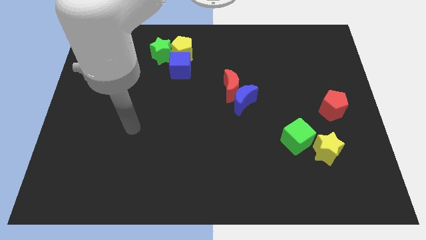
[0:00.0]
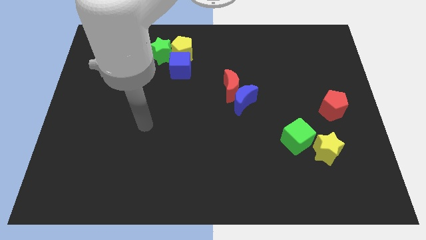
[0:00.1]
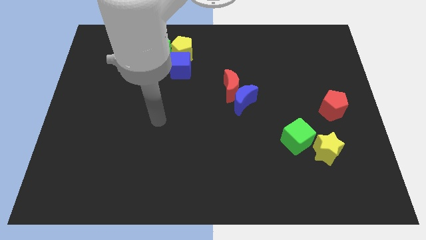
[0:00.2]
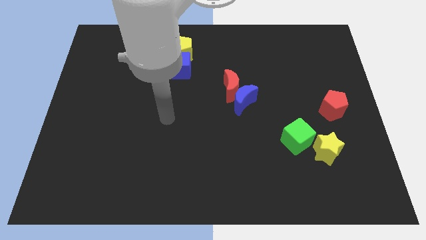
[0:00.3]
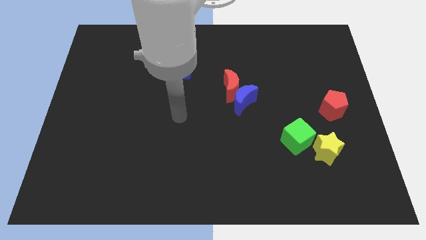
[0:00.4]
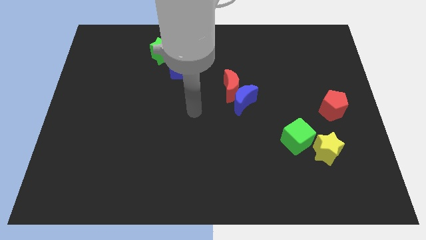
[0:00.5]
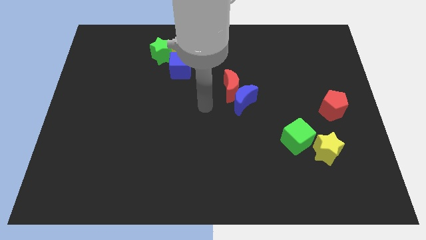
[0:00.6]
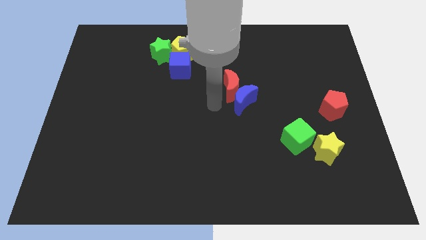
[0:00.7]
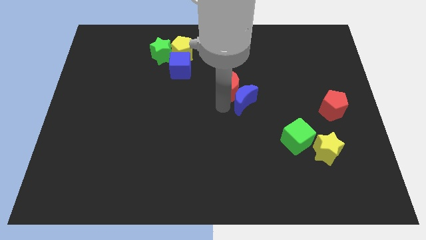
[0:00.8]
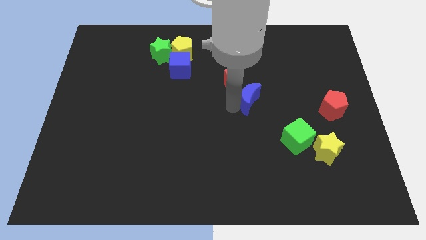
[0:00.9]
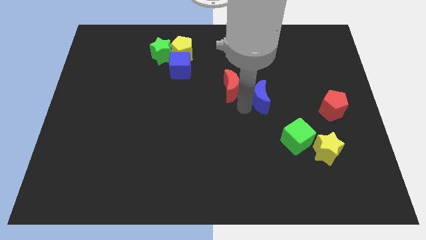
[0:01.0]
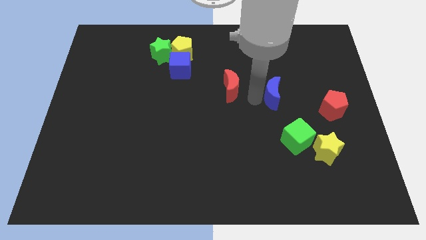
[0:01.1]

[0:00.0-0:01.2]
move the red moon away from the blue moon

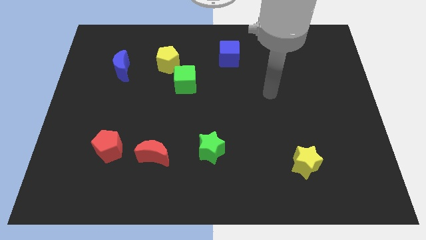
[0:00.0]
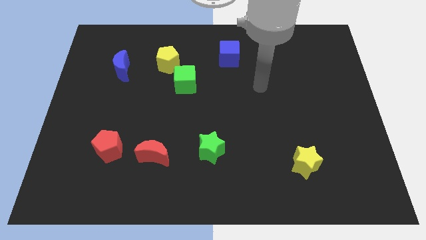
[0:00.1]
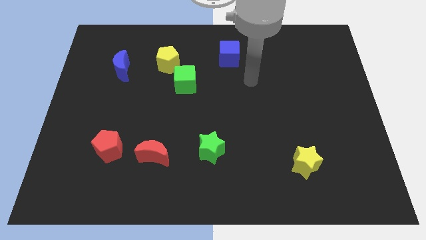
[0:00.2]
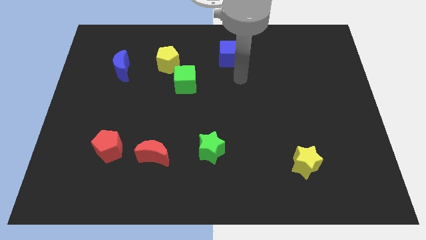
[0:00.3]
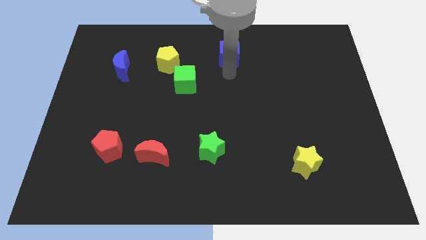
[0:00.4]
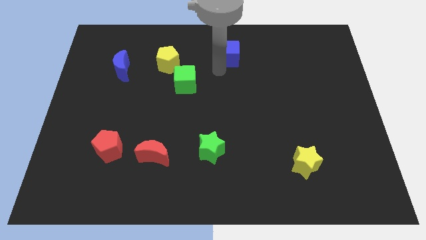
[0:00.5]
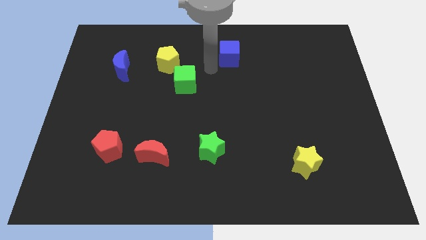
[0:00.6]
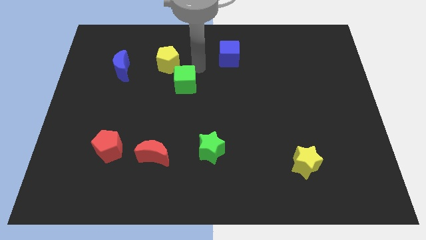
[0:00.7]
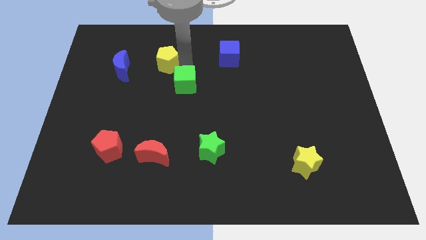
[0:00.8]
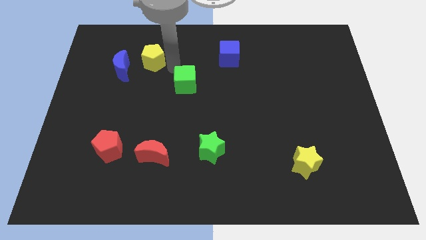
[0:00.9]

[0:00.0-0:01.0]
move the green cube away from the yellow pentagon

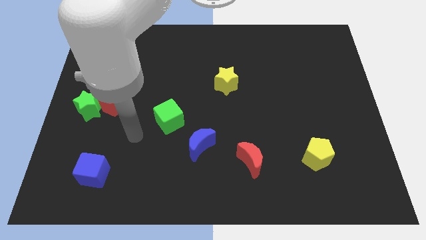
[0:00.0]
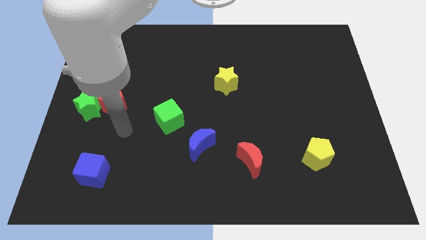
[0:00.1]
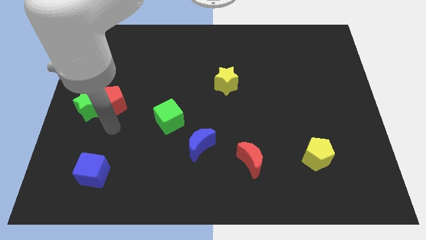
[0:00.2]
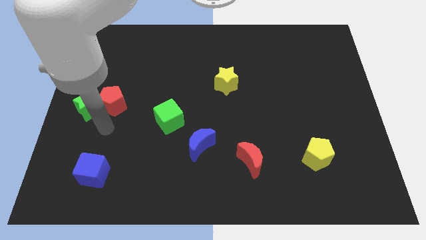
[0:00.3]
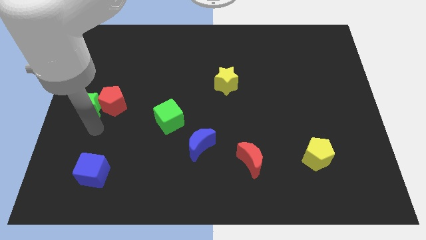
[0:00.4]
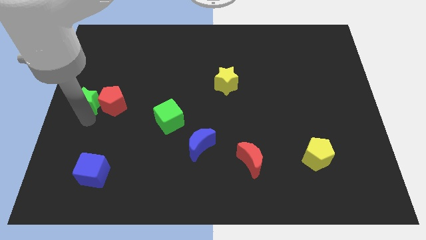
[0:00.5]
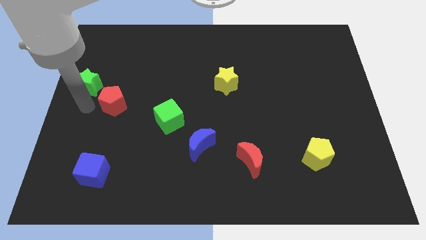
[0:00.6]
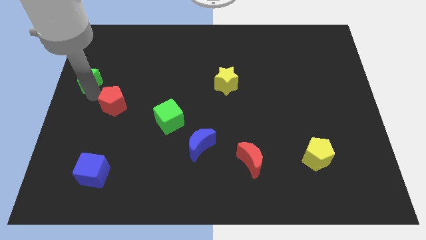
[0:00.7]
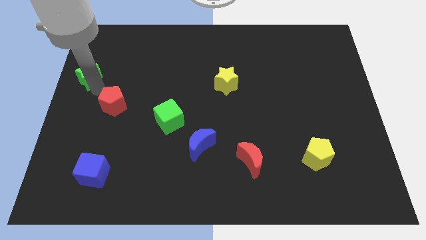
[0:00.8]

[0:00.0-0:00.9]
move the red pentagon away from the green star

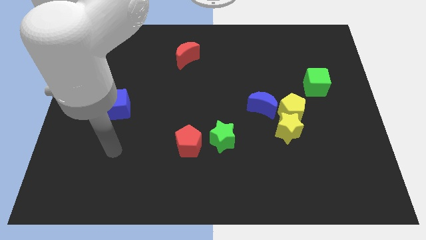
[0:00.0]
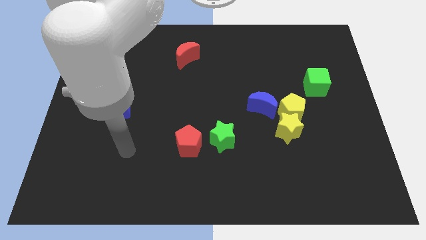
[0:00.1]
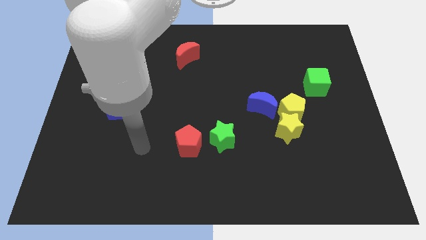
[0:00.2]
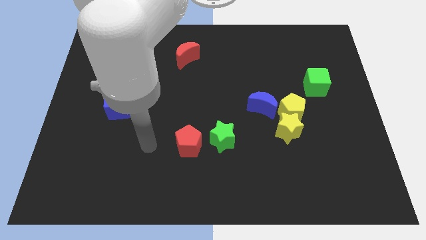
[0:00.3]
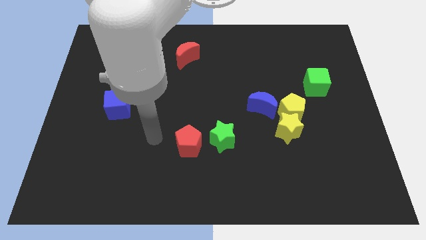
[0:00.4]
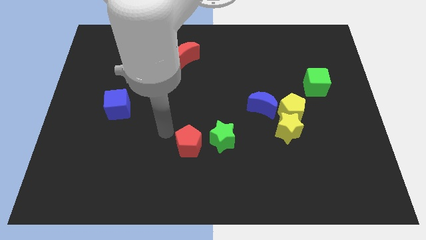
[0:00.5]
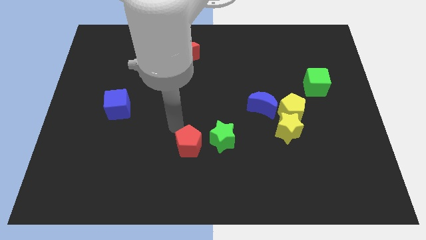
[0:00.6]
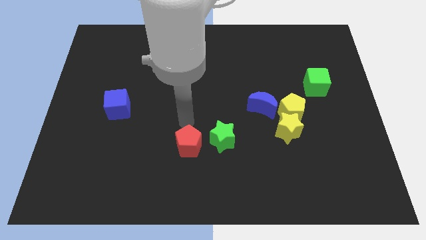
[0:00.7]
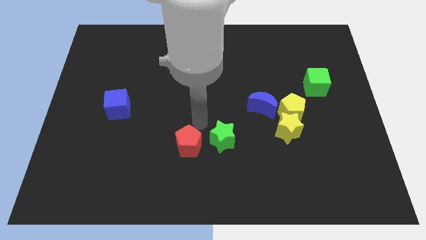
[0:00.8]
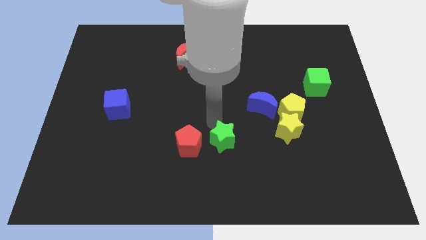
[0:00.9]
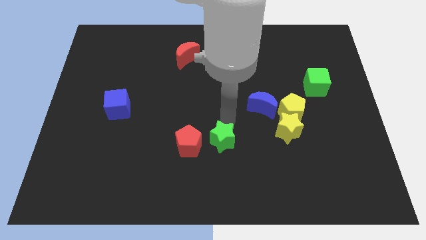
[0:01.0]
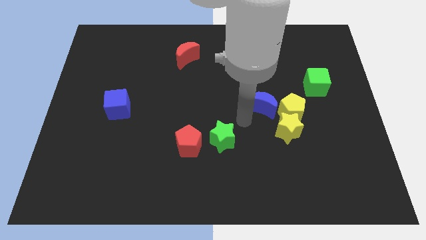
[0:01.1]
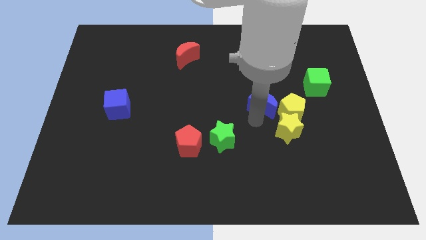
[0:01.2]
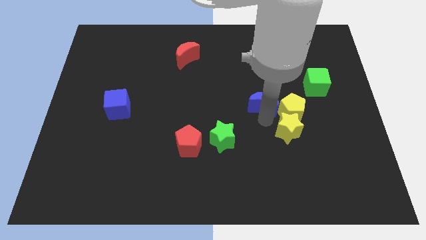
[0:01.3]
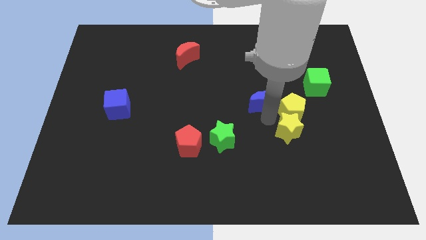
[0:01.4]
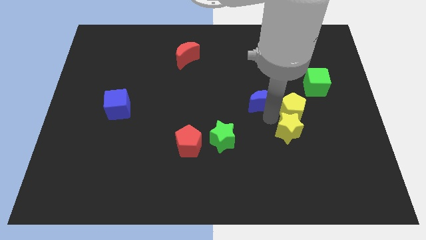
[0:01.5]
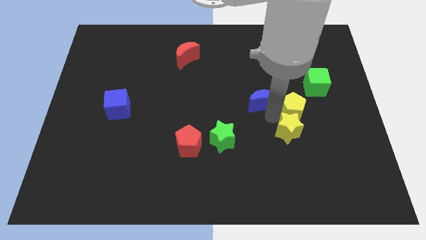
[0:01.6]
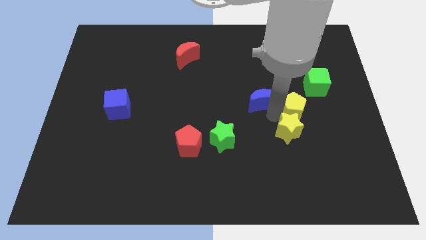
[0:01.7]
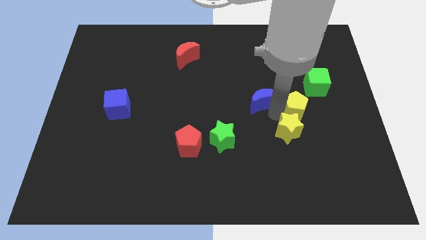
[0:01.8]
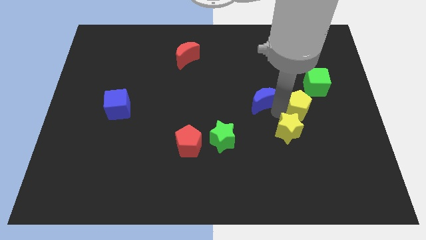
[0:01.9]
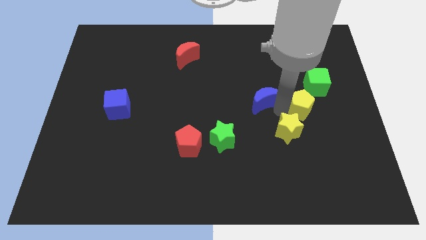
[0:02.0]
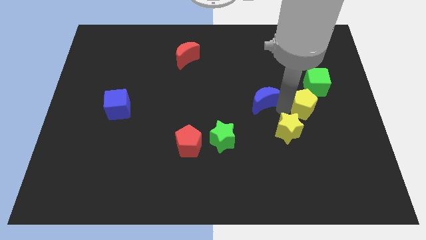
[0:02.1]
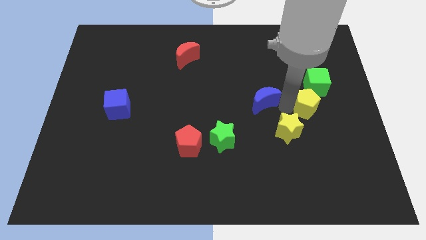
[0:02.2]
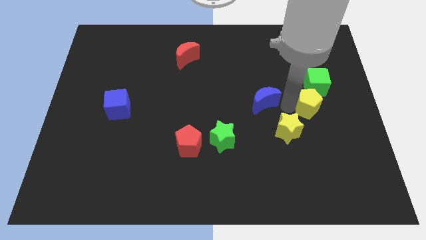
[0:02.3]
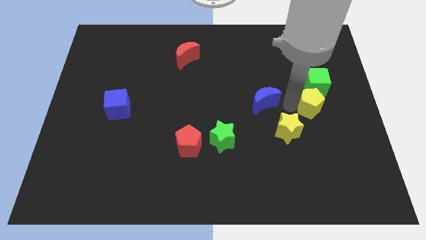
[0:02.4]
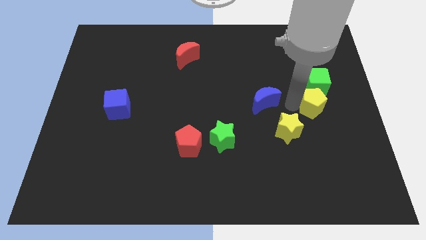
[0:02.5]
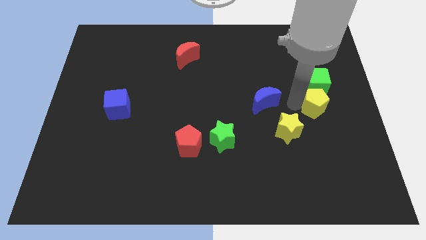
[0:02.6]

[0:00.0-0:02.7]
move the yellow pentagon away from the yellow star and blue moon

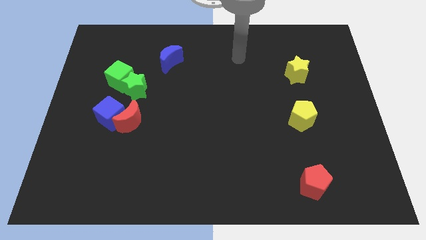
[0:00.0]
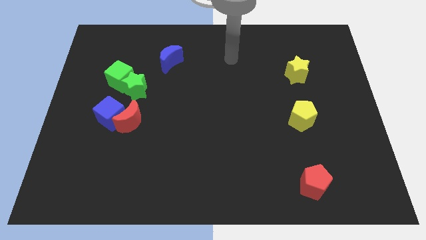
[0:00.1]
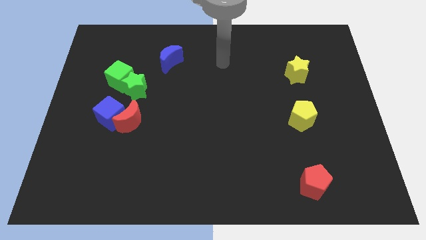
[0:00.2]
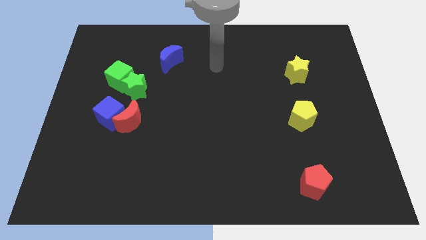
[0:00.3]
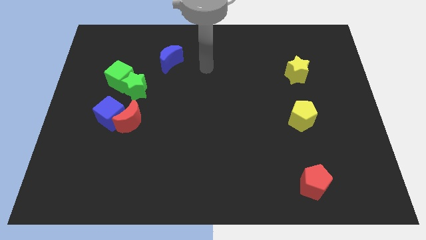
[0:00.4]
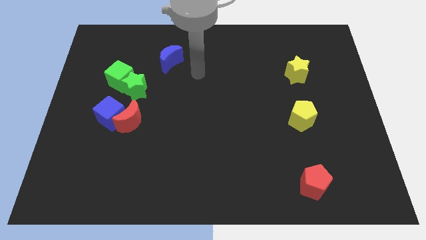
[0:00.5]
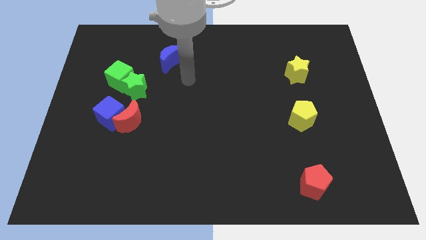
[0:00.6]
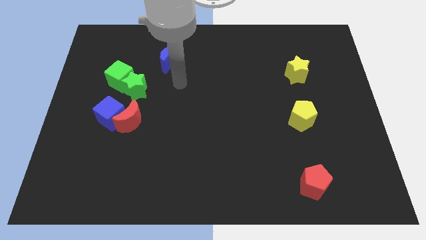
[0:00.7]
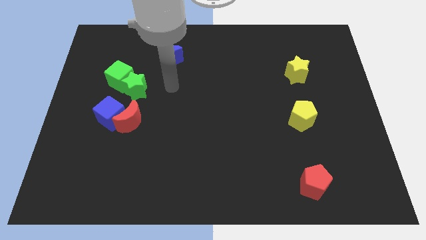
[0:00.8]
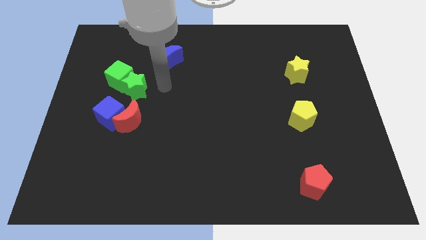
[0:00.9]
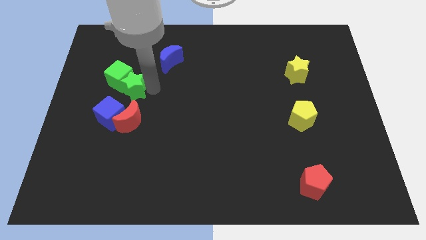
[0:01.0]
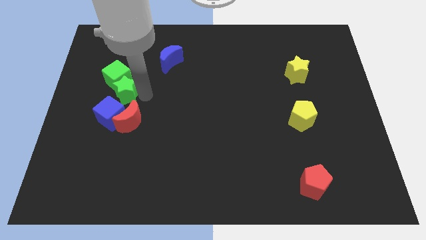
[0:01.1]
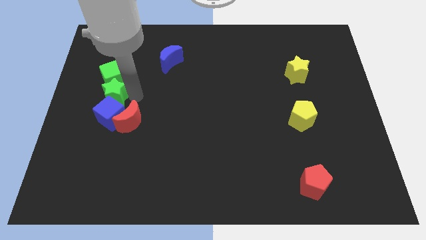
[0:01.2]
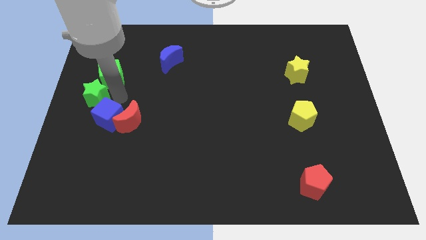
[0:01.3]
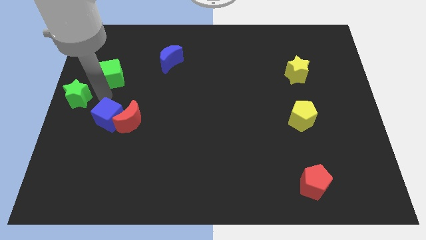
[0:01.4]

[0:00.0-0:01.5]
move the green cube away from the green star

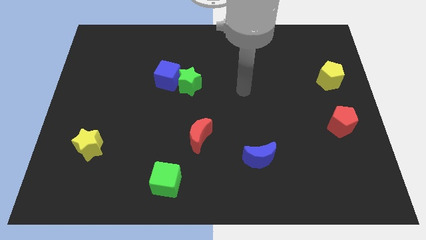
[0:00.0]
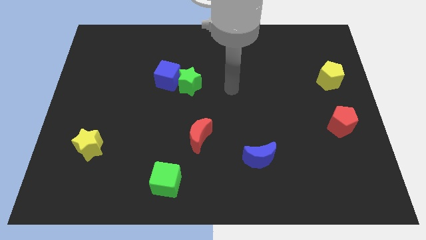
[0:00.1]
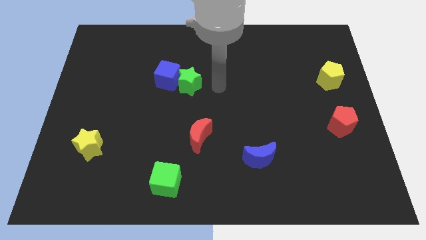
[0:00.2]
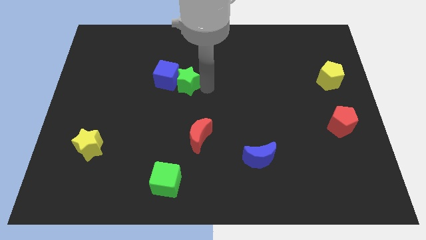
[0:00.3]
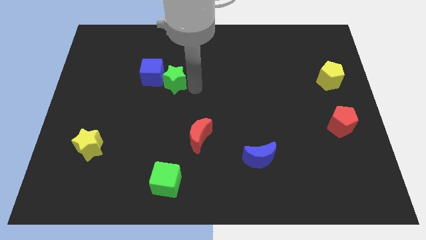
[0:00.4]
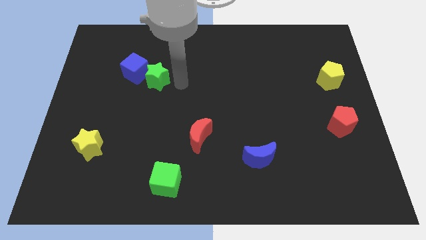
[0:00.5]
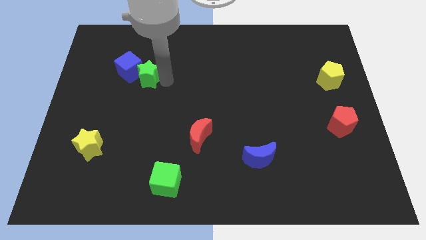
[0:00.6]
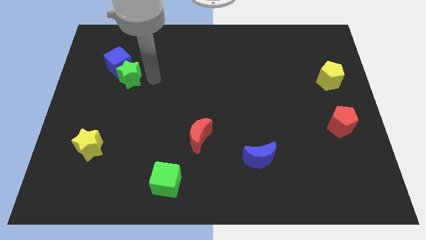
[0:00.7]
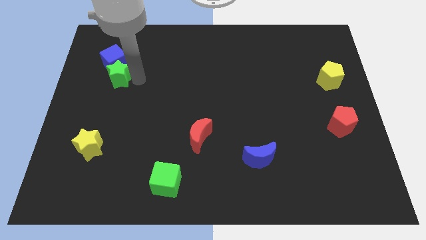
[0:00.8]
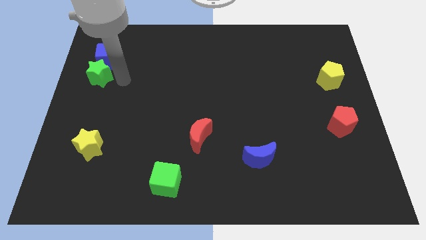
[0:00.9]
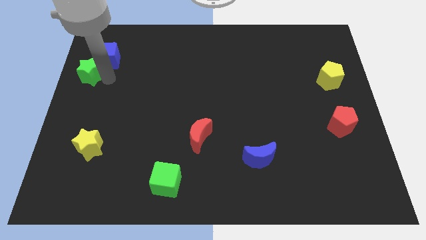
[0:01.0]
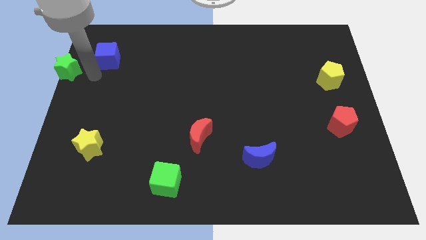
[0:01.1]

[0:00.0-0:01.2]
move the blue cube away from the green star

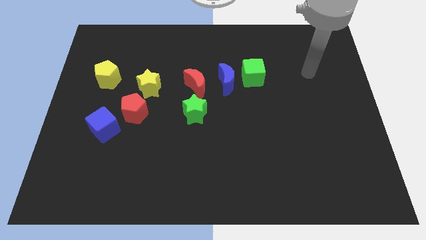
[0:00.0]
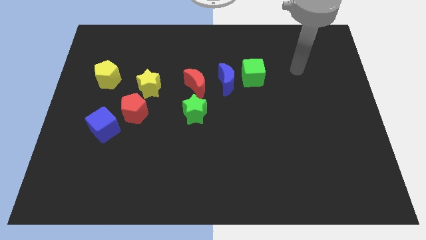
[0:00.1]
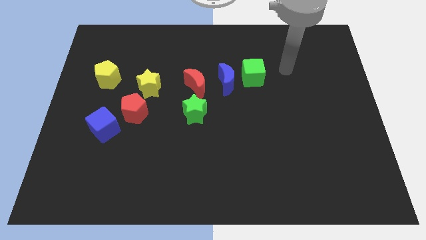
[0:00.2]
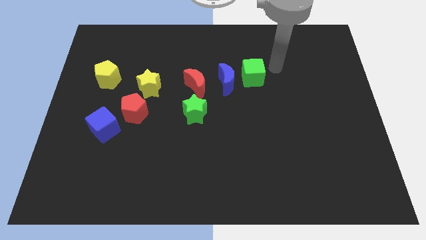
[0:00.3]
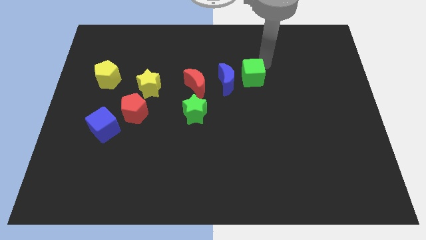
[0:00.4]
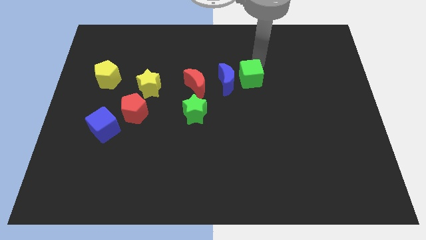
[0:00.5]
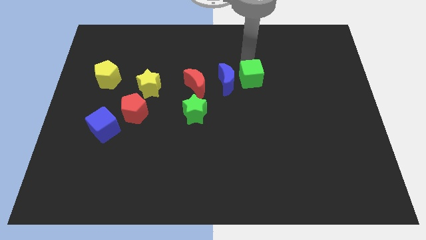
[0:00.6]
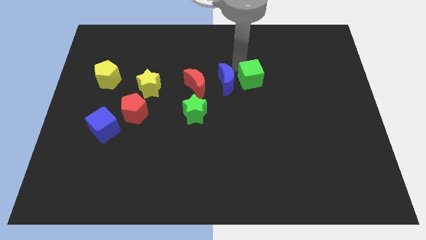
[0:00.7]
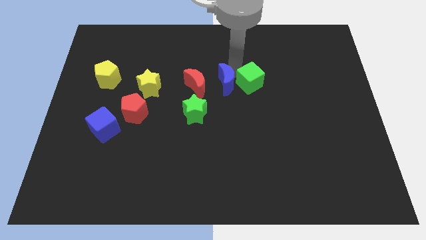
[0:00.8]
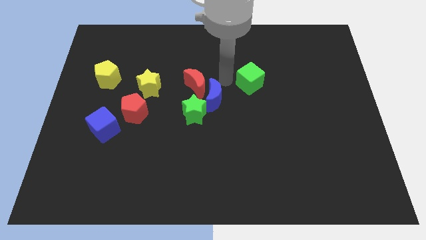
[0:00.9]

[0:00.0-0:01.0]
move the green cube away from the blue moon
